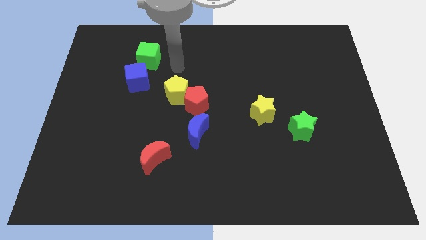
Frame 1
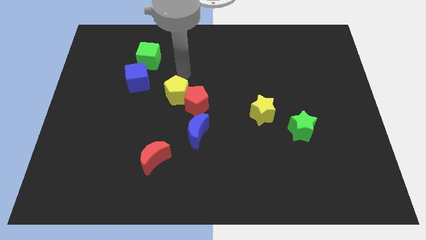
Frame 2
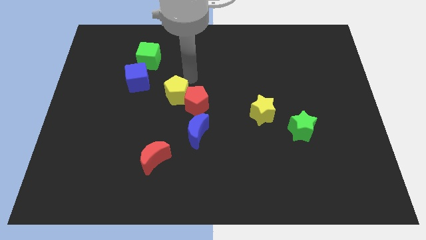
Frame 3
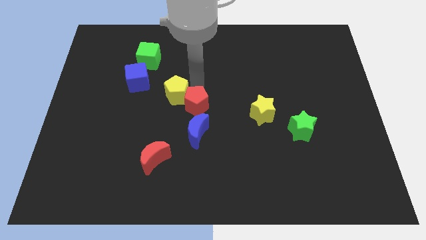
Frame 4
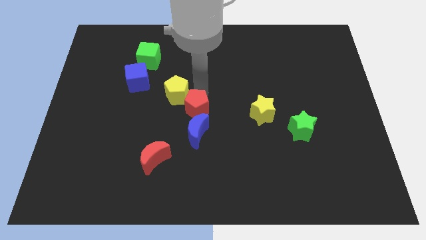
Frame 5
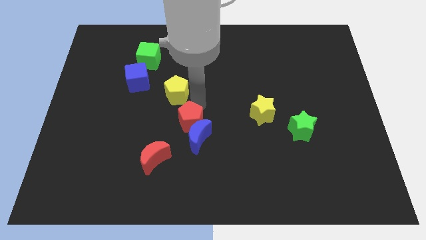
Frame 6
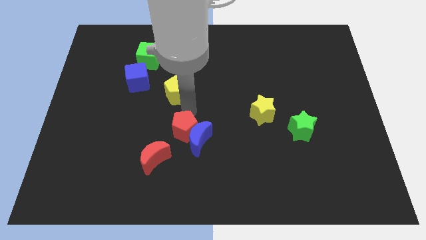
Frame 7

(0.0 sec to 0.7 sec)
separate the yellow pentagon from the red pentagon

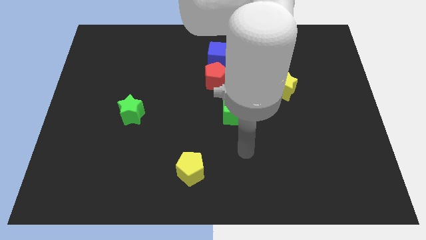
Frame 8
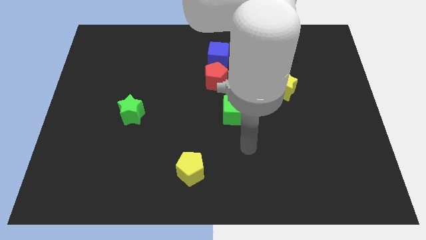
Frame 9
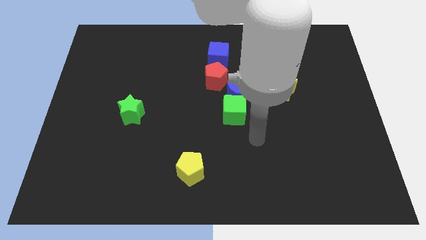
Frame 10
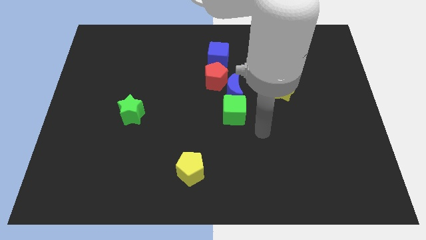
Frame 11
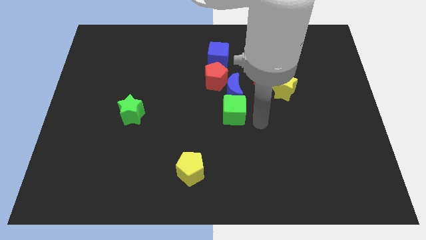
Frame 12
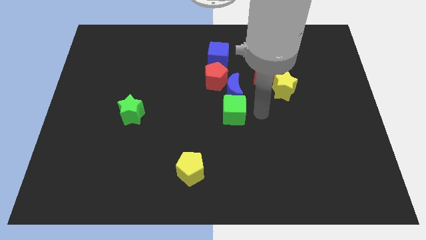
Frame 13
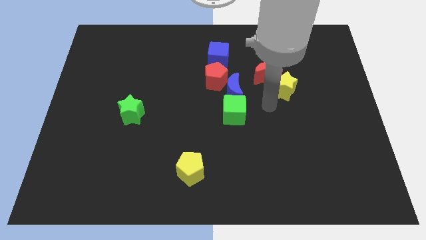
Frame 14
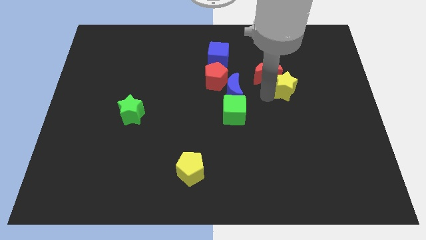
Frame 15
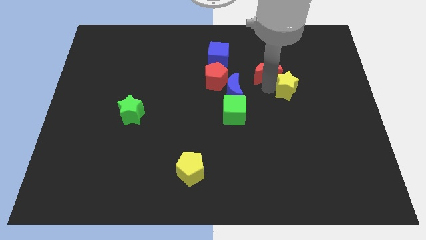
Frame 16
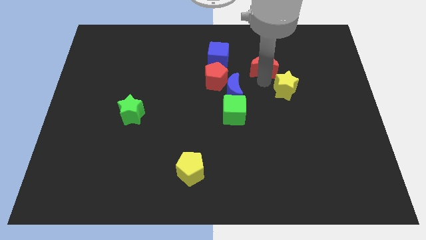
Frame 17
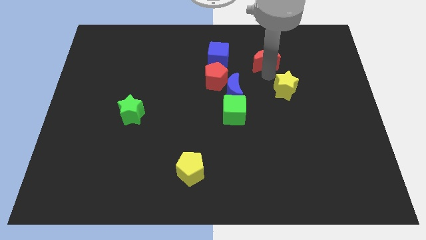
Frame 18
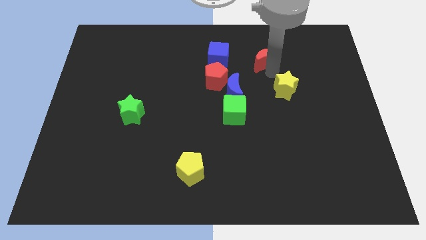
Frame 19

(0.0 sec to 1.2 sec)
separate the yellow star from the red moon

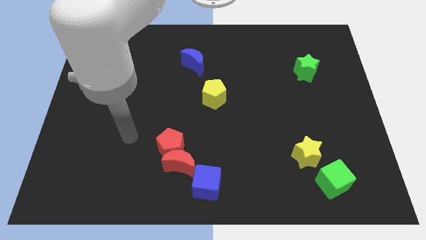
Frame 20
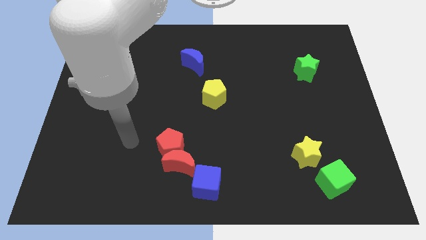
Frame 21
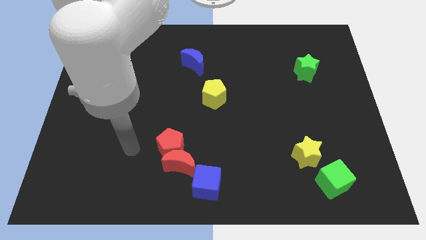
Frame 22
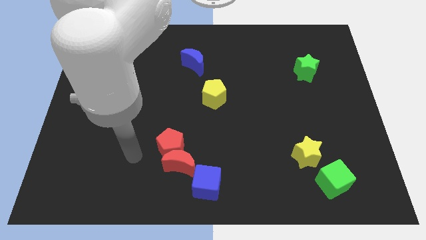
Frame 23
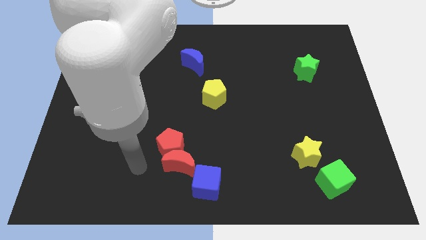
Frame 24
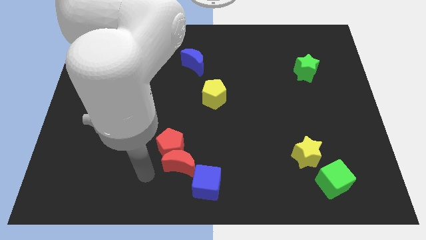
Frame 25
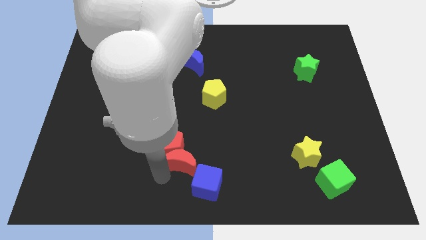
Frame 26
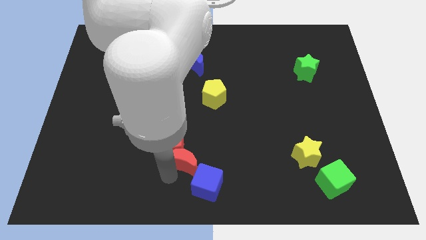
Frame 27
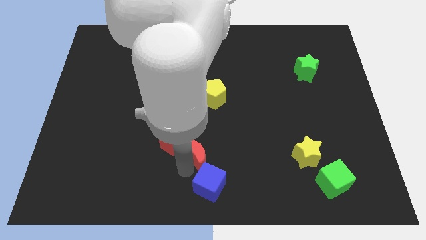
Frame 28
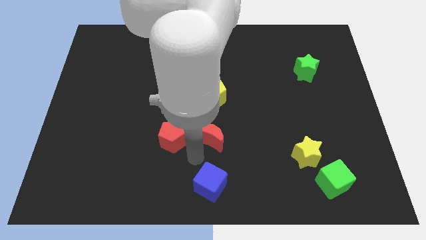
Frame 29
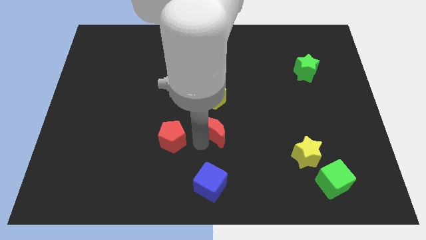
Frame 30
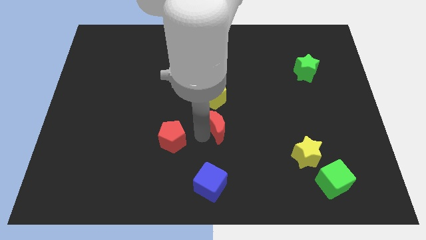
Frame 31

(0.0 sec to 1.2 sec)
separate the red pentagon from the red moon

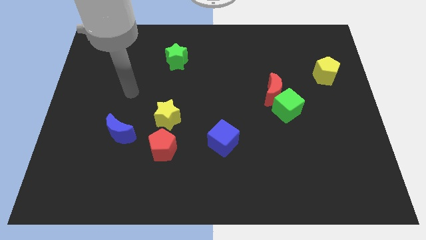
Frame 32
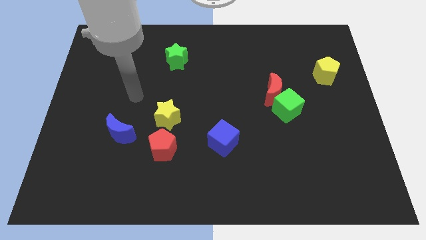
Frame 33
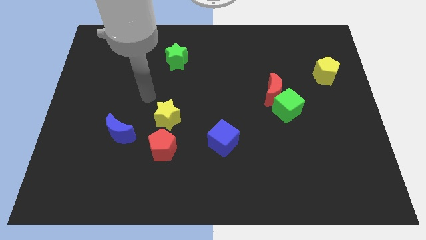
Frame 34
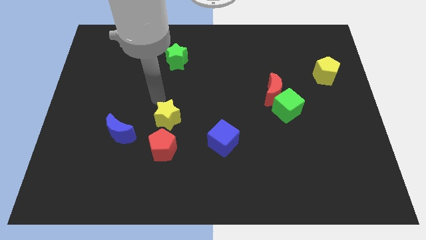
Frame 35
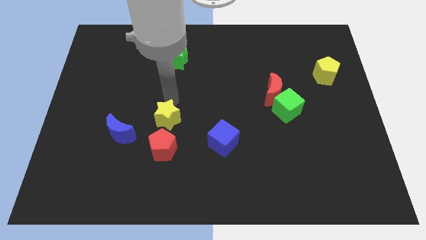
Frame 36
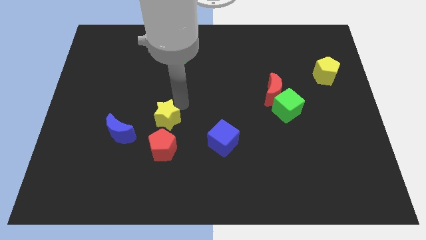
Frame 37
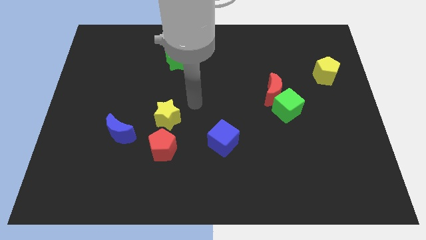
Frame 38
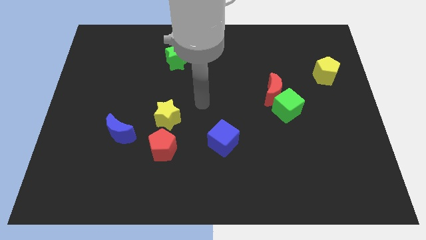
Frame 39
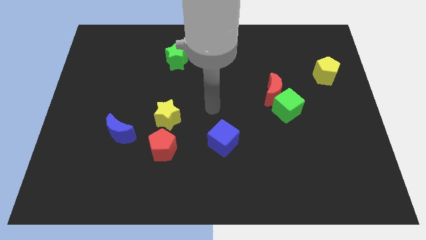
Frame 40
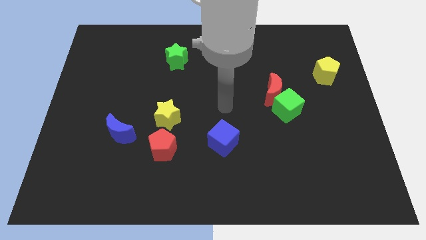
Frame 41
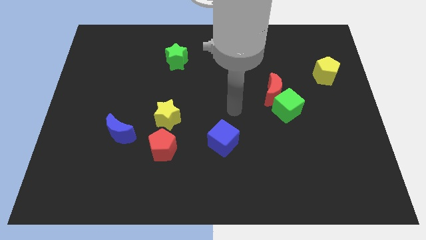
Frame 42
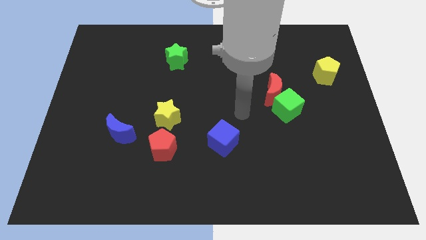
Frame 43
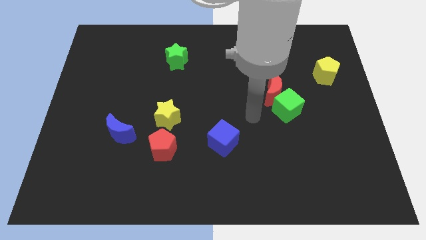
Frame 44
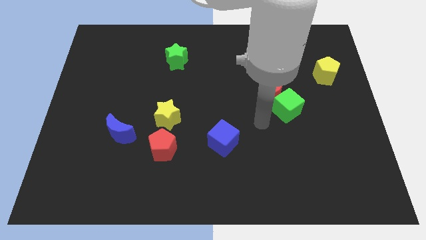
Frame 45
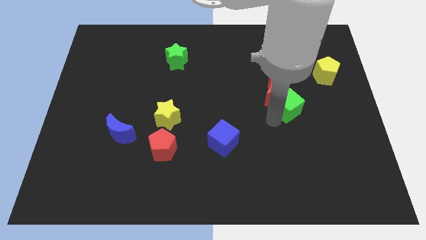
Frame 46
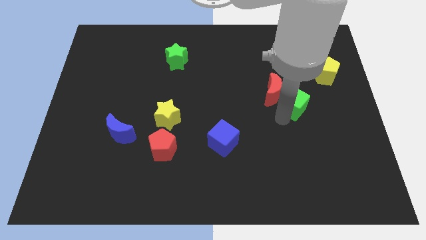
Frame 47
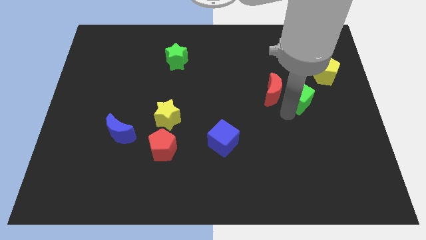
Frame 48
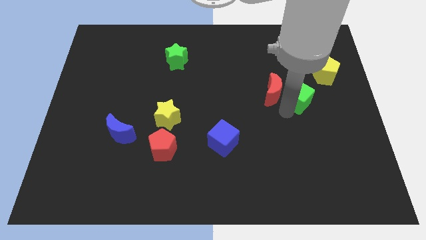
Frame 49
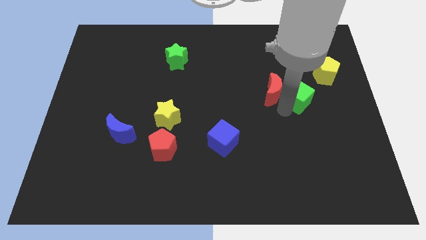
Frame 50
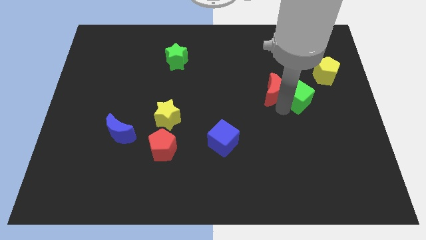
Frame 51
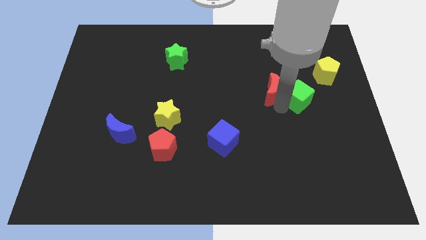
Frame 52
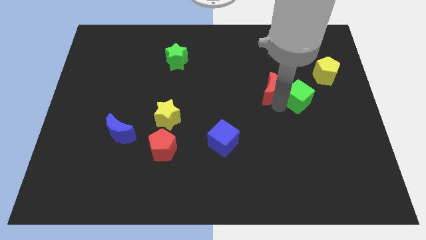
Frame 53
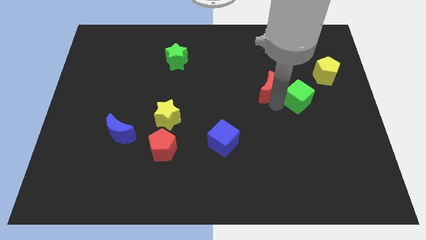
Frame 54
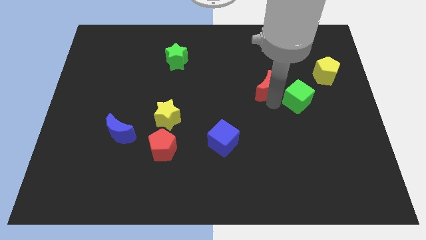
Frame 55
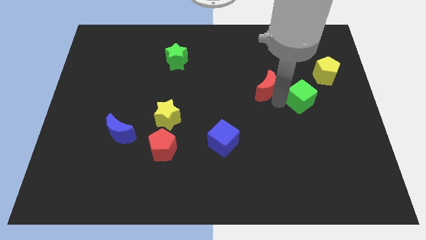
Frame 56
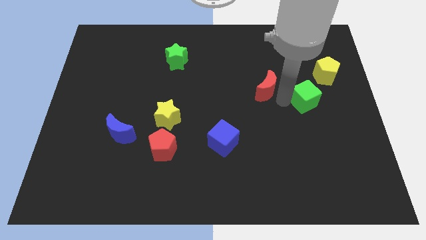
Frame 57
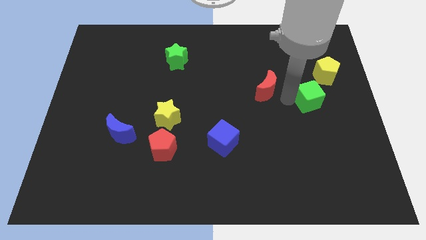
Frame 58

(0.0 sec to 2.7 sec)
pull the red moon apart from the green cube

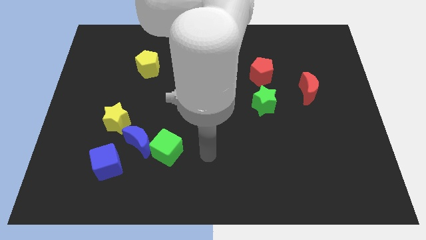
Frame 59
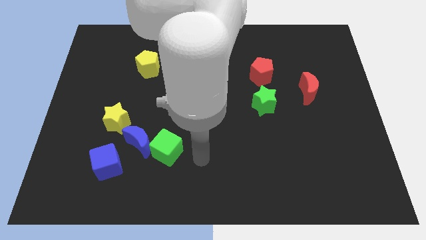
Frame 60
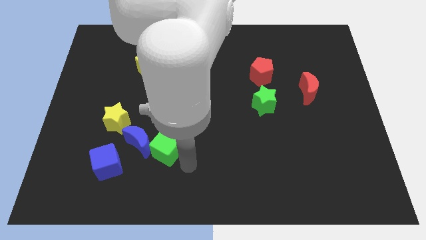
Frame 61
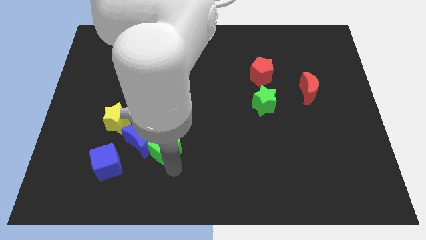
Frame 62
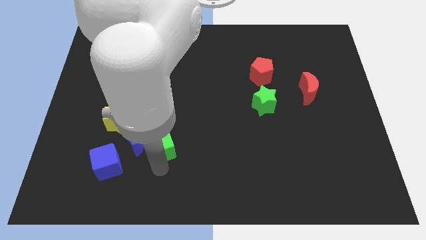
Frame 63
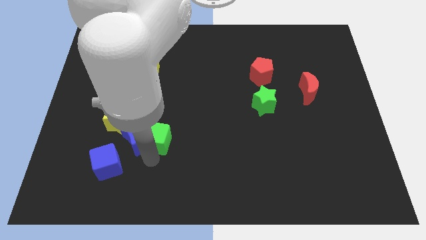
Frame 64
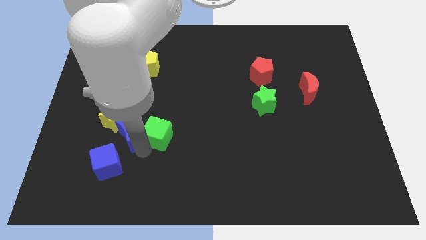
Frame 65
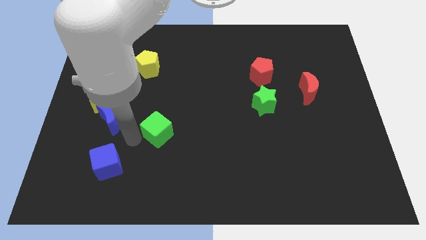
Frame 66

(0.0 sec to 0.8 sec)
move the green cube away from the blue moon

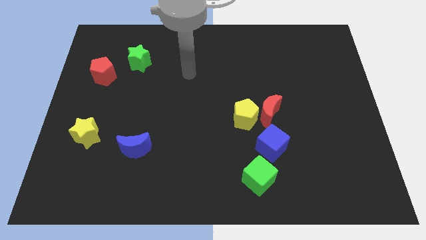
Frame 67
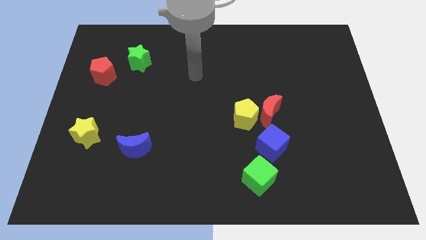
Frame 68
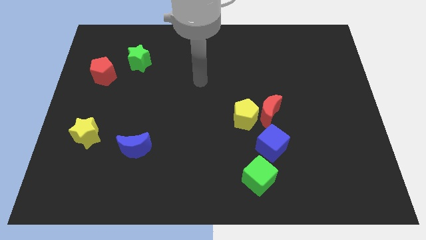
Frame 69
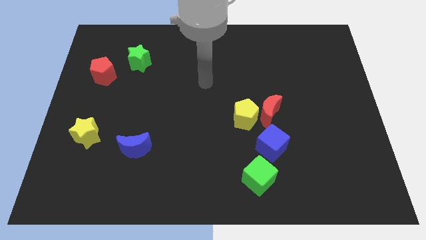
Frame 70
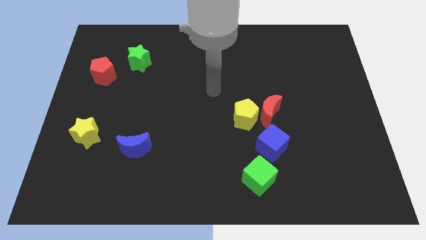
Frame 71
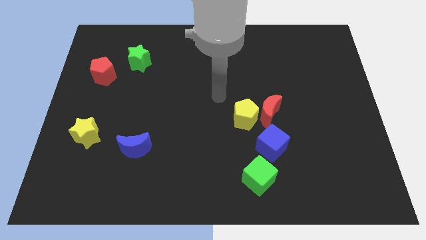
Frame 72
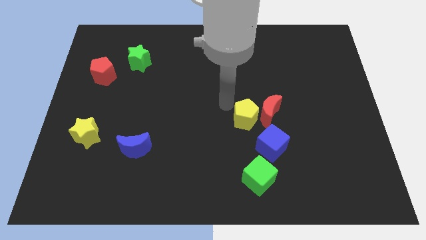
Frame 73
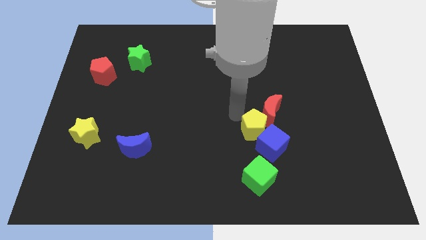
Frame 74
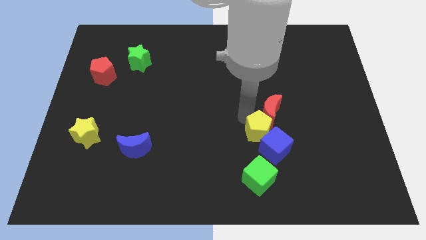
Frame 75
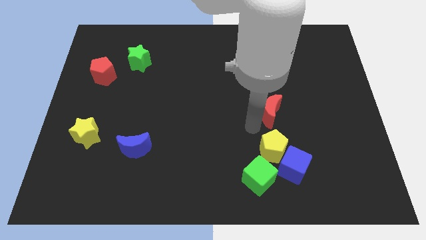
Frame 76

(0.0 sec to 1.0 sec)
move the red moon away from the yellow pentagon and blue cube

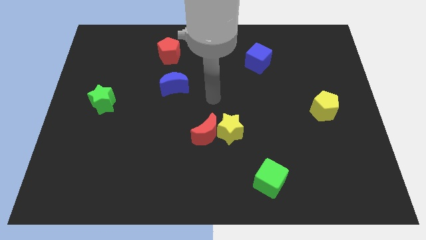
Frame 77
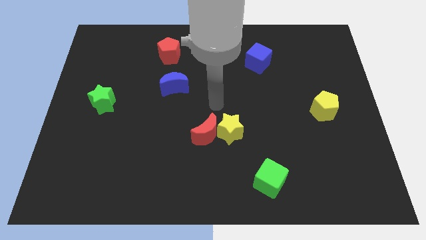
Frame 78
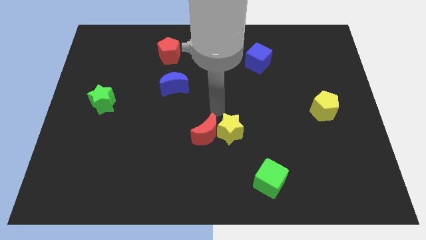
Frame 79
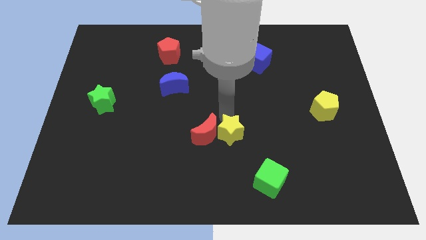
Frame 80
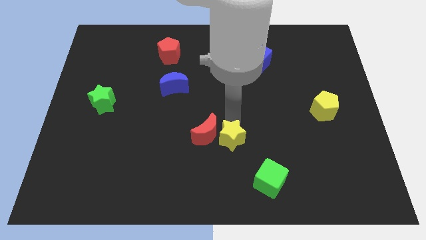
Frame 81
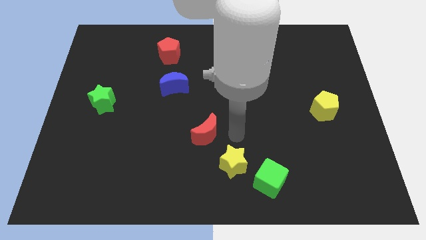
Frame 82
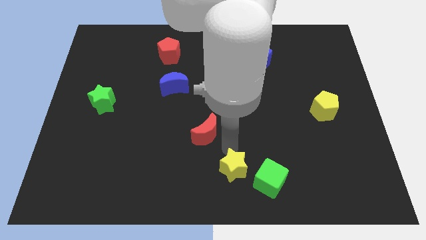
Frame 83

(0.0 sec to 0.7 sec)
pull the red moon apart from the yellow star

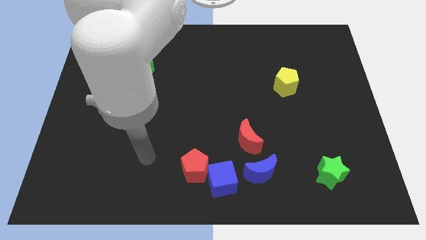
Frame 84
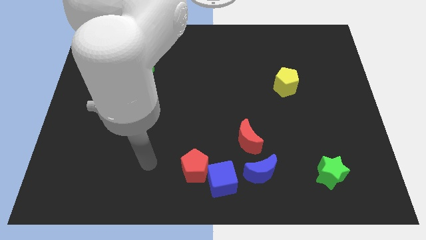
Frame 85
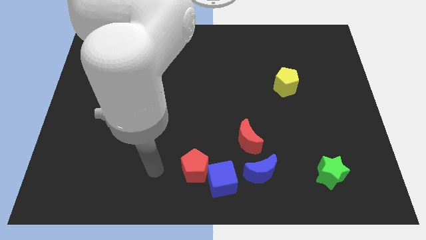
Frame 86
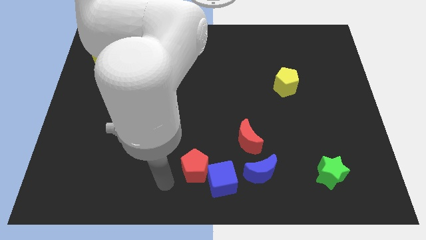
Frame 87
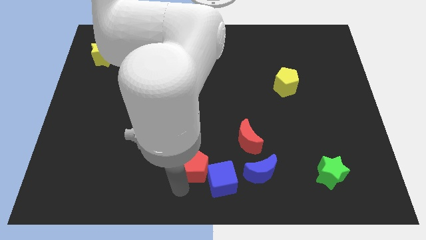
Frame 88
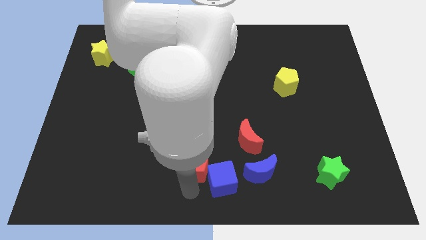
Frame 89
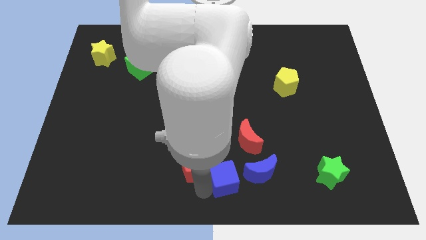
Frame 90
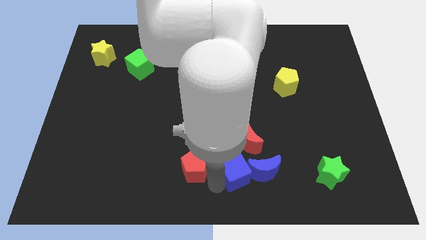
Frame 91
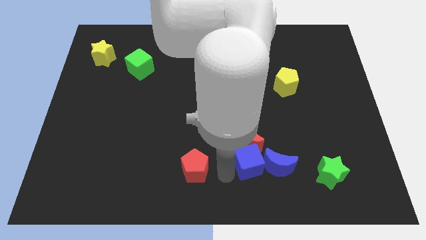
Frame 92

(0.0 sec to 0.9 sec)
separate the red pentagon from the blue cube
